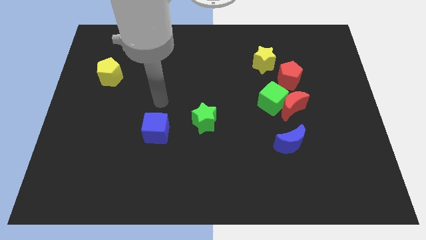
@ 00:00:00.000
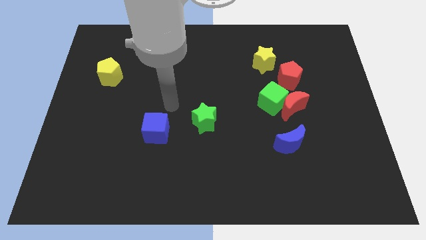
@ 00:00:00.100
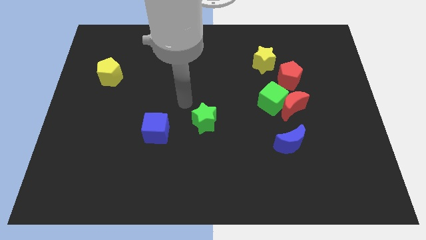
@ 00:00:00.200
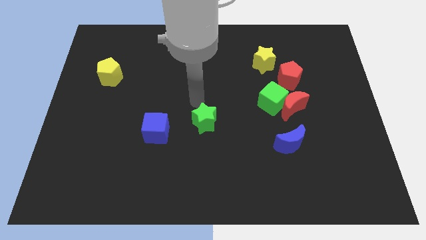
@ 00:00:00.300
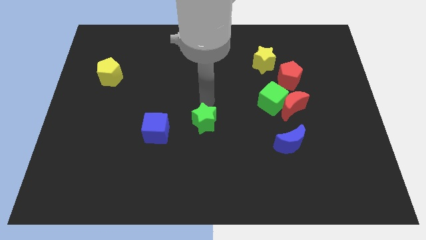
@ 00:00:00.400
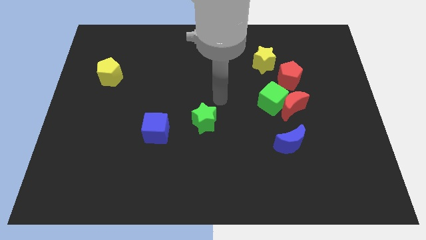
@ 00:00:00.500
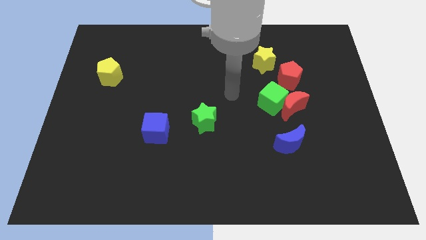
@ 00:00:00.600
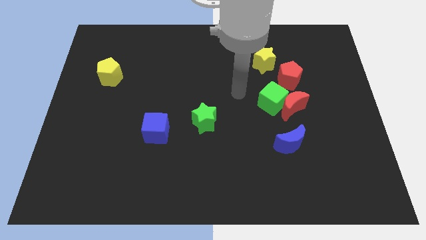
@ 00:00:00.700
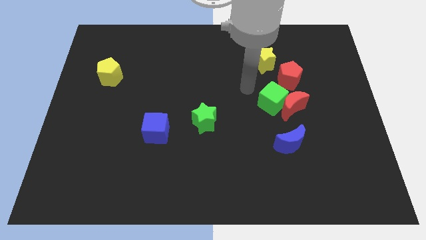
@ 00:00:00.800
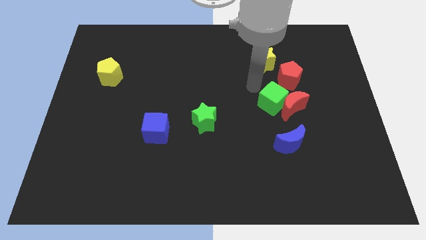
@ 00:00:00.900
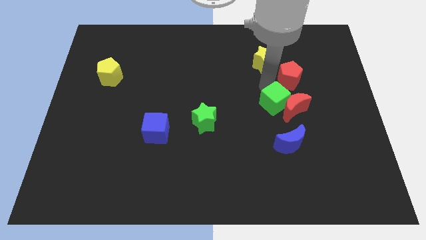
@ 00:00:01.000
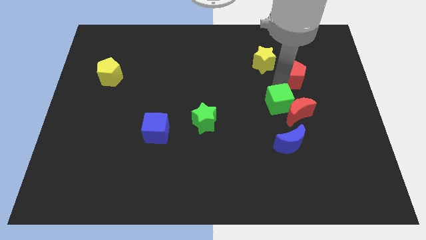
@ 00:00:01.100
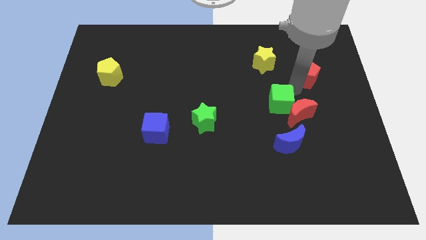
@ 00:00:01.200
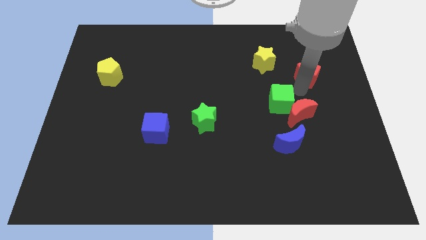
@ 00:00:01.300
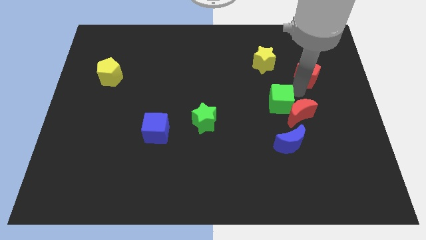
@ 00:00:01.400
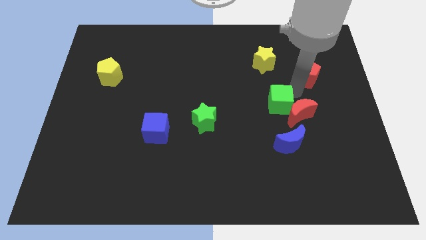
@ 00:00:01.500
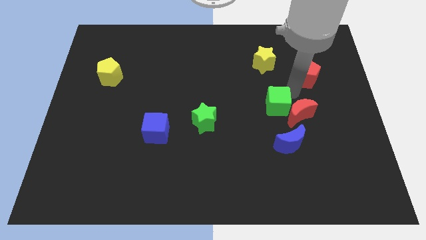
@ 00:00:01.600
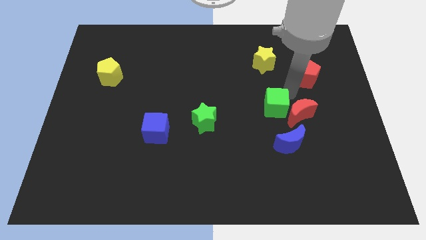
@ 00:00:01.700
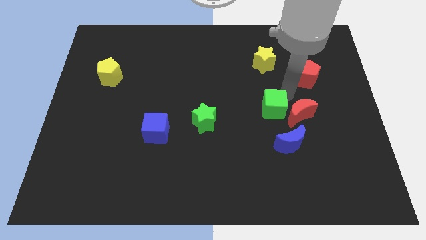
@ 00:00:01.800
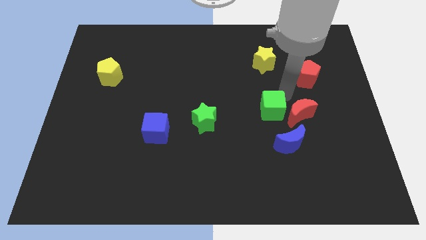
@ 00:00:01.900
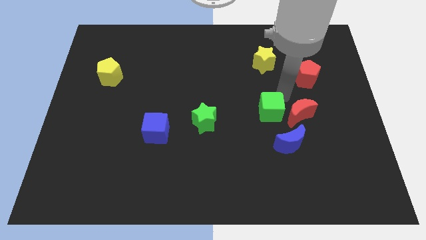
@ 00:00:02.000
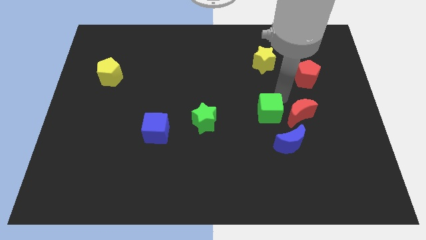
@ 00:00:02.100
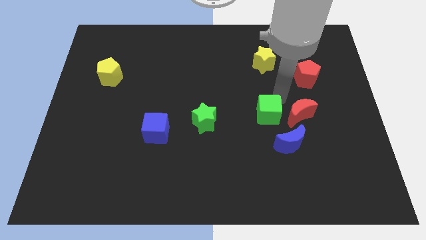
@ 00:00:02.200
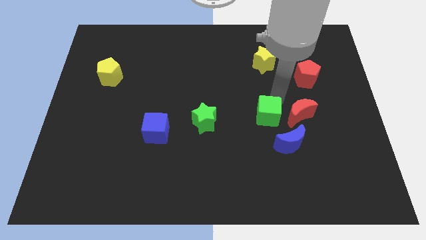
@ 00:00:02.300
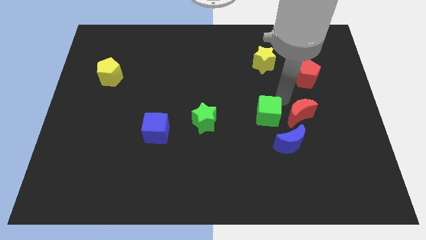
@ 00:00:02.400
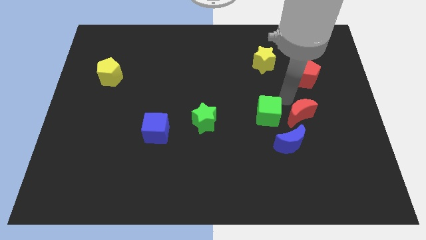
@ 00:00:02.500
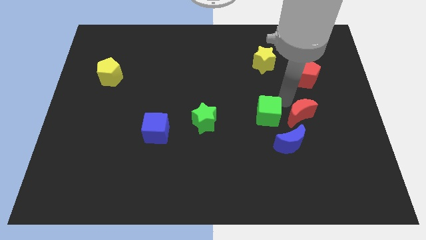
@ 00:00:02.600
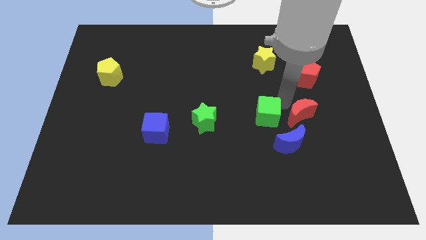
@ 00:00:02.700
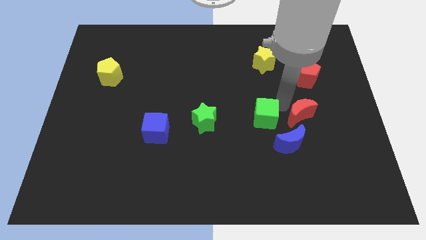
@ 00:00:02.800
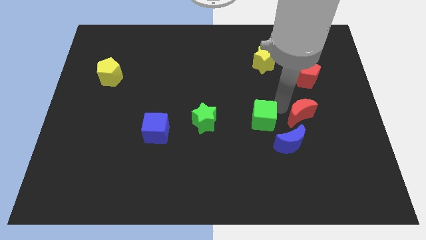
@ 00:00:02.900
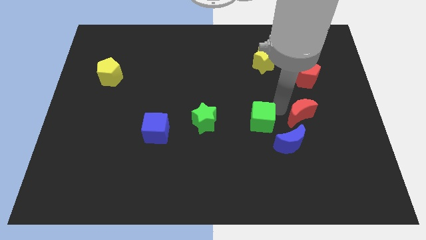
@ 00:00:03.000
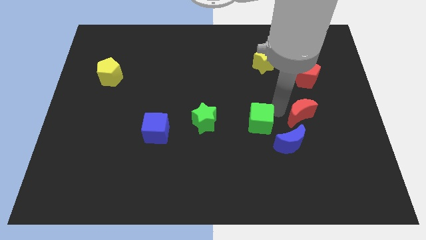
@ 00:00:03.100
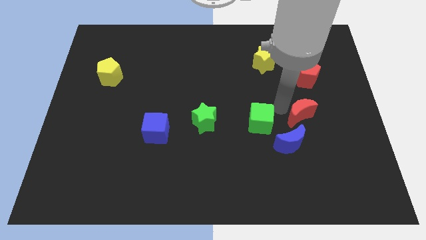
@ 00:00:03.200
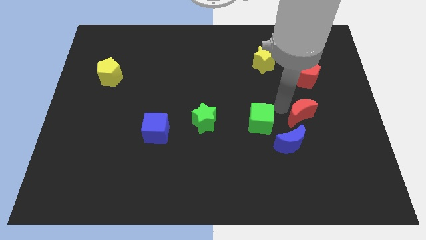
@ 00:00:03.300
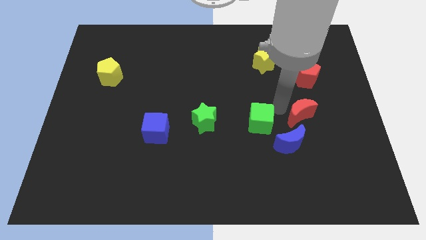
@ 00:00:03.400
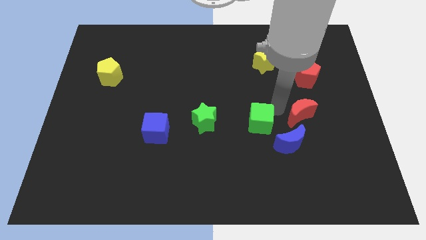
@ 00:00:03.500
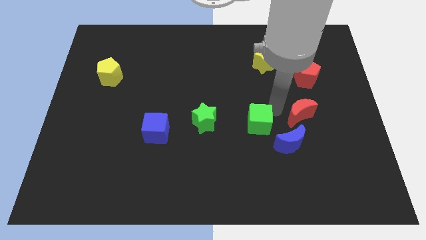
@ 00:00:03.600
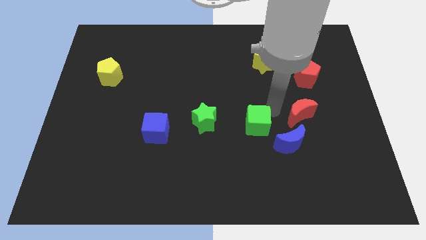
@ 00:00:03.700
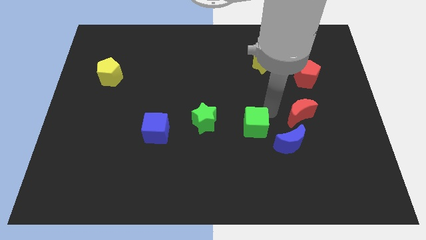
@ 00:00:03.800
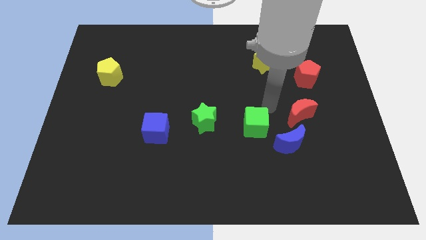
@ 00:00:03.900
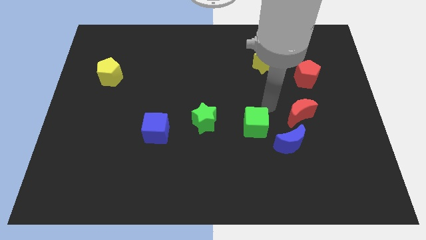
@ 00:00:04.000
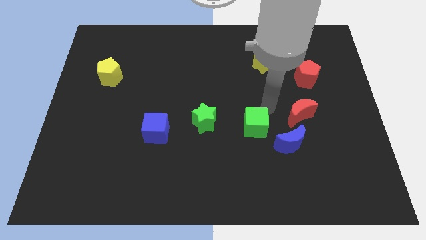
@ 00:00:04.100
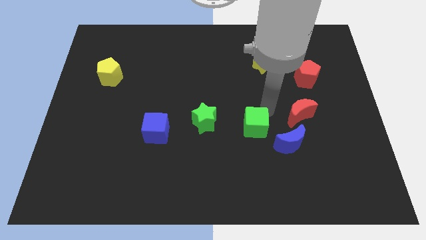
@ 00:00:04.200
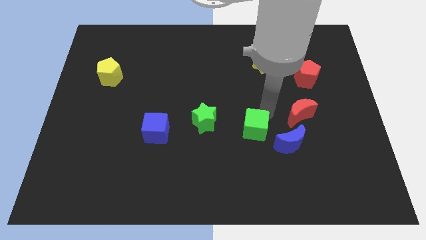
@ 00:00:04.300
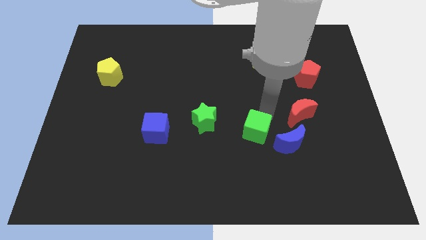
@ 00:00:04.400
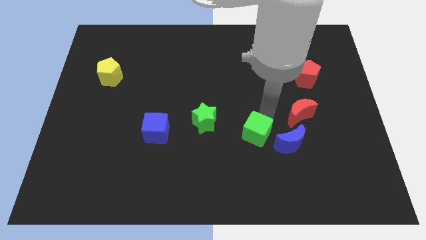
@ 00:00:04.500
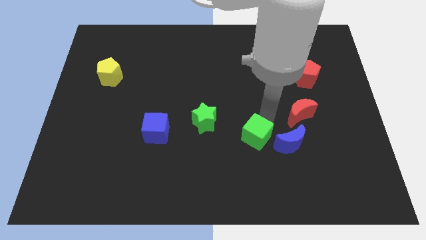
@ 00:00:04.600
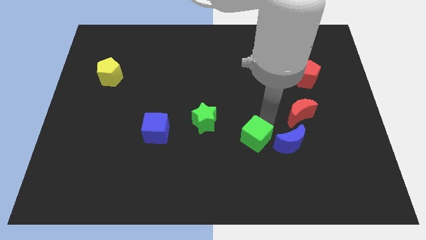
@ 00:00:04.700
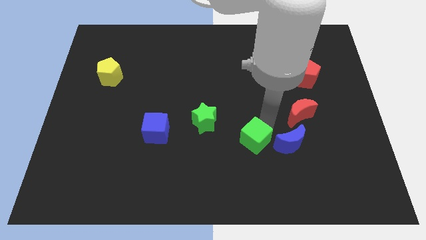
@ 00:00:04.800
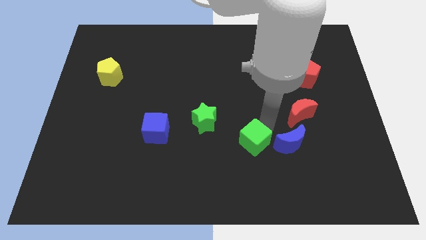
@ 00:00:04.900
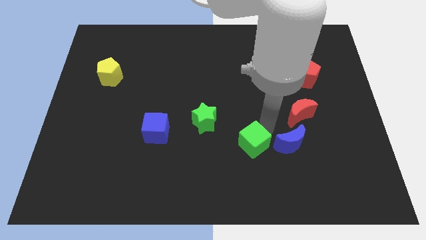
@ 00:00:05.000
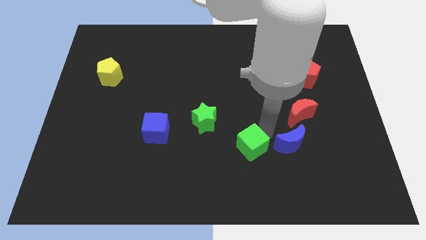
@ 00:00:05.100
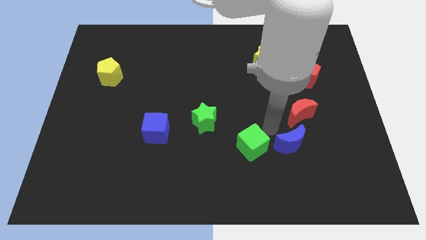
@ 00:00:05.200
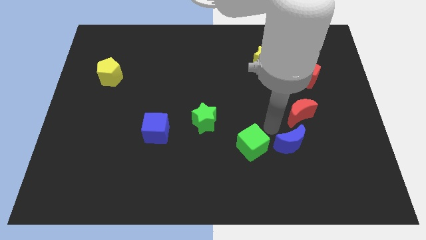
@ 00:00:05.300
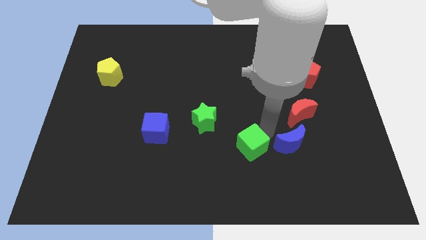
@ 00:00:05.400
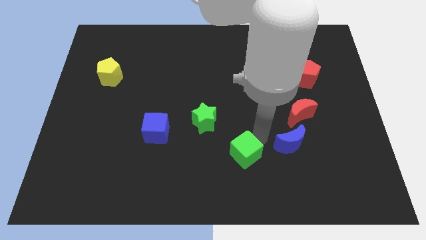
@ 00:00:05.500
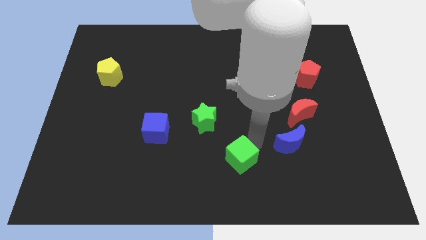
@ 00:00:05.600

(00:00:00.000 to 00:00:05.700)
move the green cube to the bottom

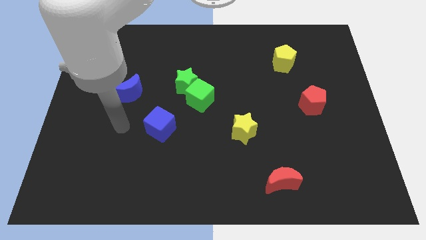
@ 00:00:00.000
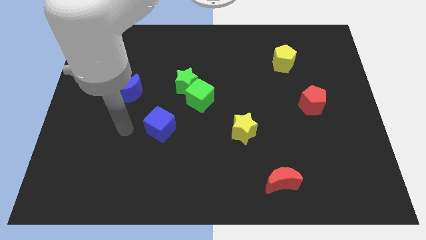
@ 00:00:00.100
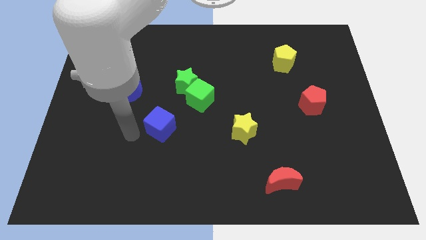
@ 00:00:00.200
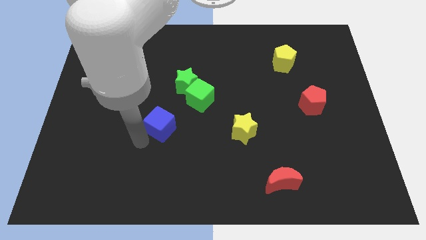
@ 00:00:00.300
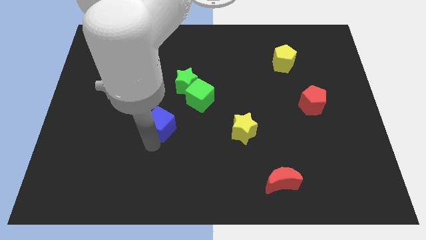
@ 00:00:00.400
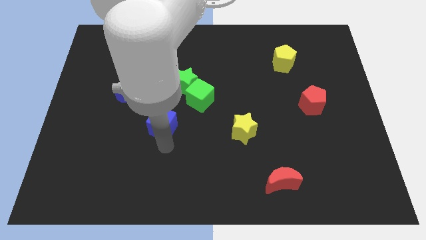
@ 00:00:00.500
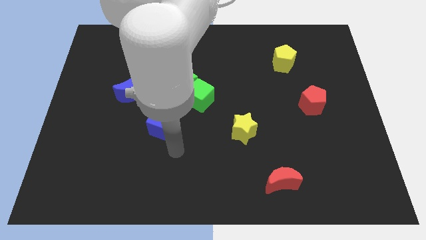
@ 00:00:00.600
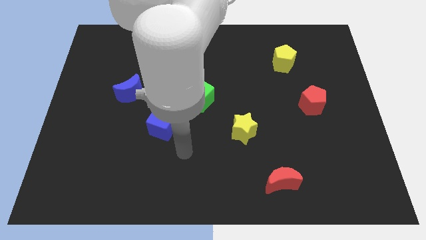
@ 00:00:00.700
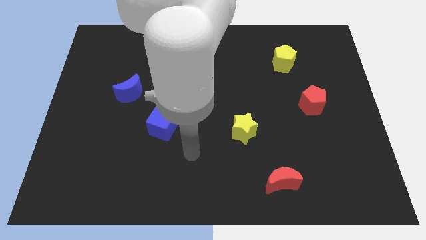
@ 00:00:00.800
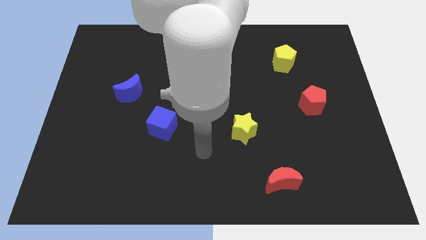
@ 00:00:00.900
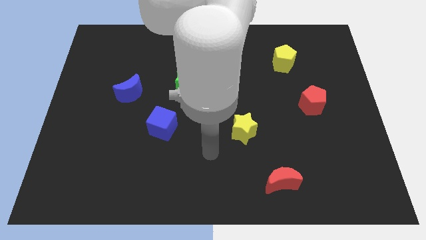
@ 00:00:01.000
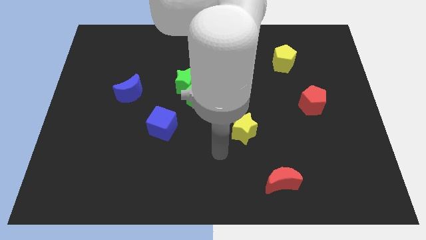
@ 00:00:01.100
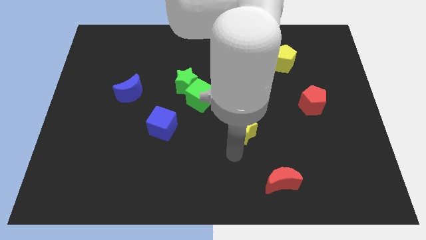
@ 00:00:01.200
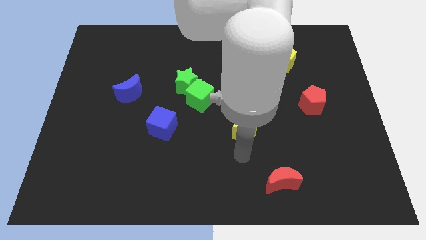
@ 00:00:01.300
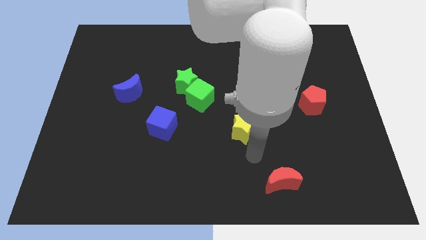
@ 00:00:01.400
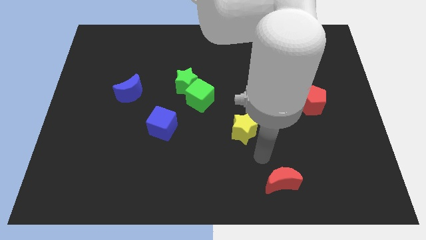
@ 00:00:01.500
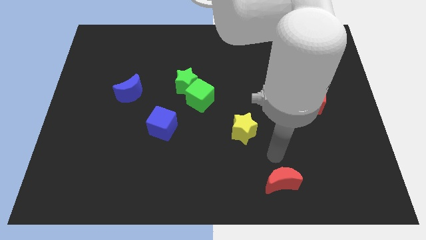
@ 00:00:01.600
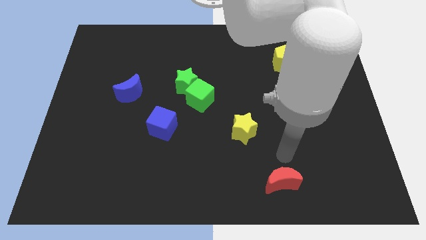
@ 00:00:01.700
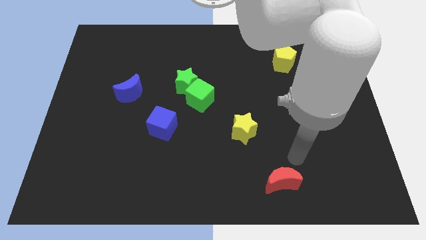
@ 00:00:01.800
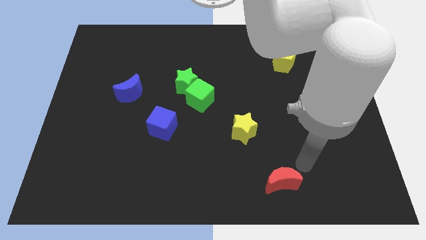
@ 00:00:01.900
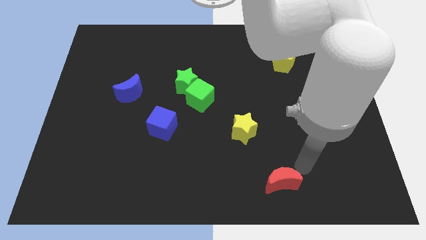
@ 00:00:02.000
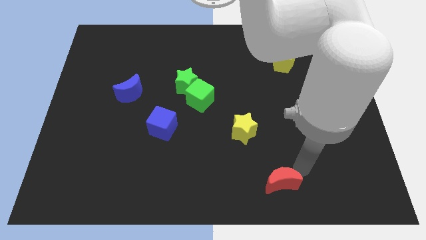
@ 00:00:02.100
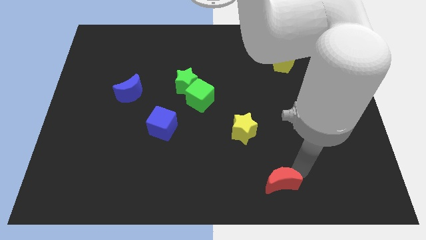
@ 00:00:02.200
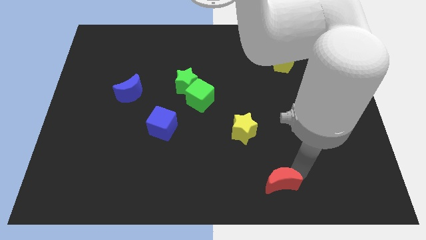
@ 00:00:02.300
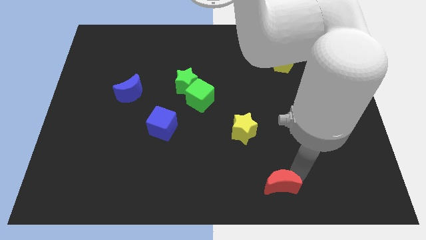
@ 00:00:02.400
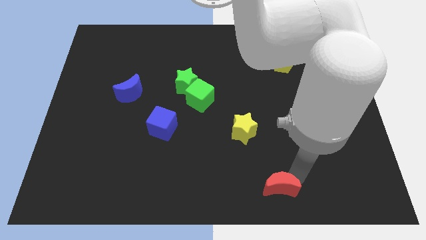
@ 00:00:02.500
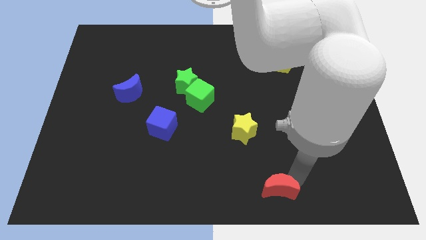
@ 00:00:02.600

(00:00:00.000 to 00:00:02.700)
push the red moon to the bottom
